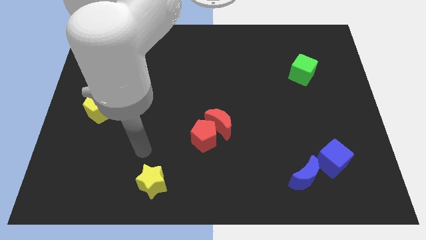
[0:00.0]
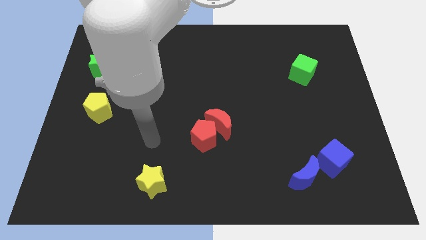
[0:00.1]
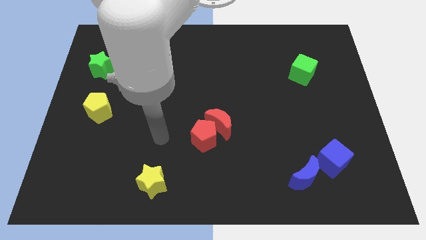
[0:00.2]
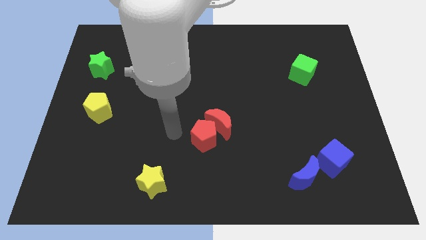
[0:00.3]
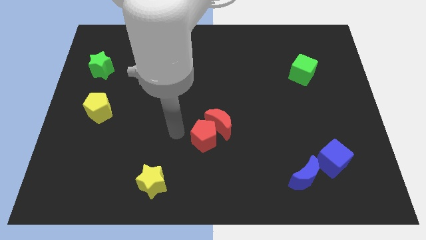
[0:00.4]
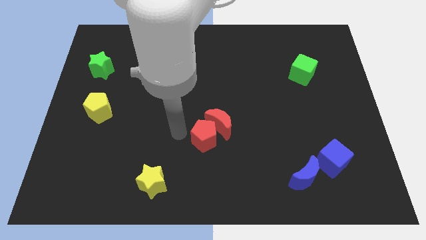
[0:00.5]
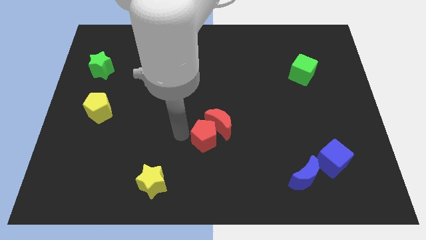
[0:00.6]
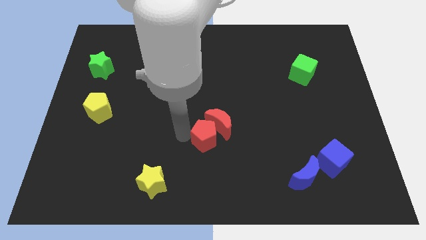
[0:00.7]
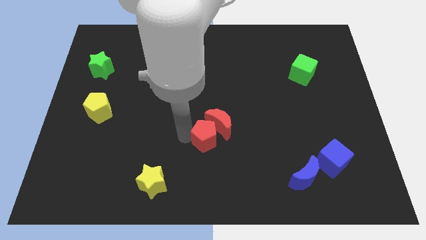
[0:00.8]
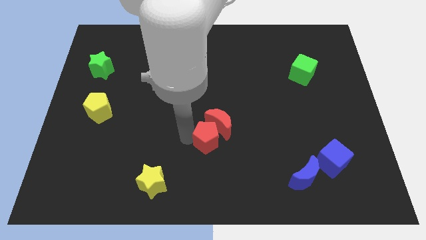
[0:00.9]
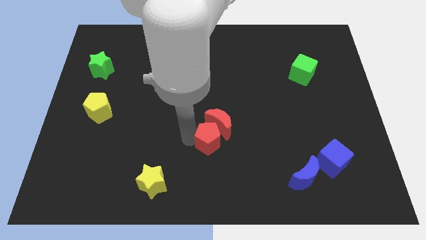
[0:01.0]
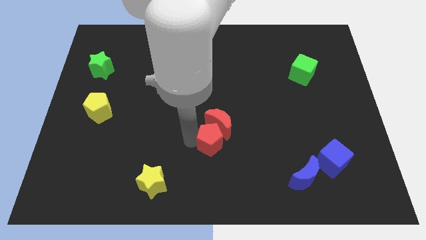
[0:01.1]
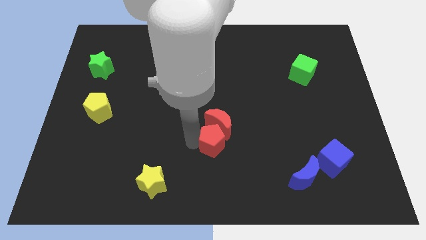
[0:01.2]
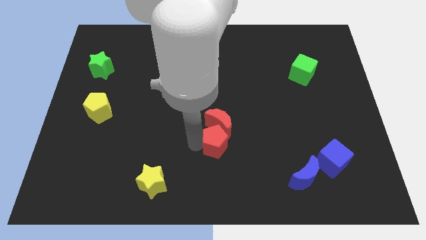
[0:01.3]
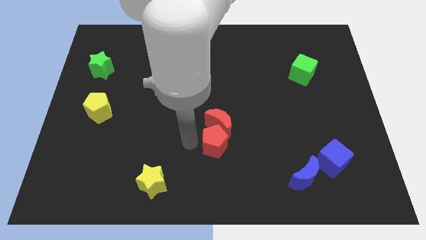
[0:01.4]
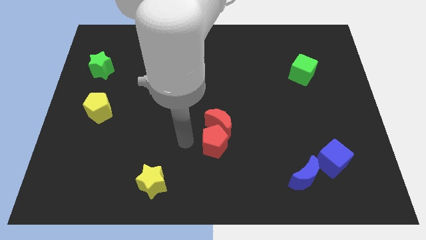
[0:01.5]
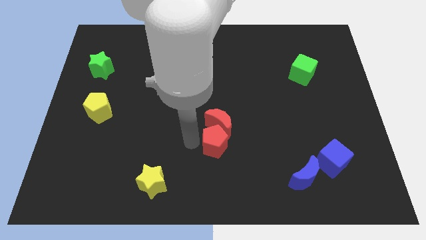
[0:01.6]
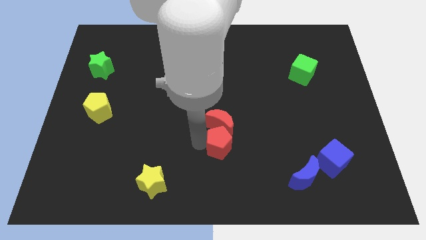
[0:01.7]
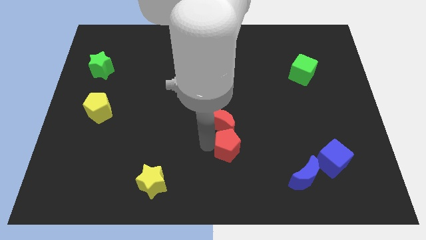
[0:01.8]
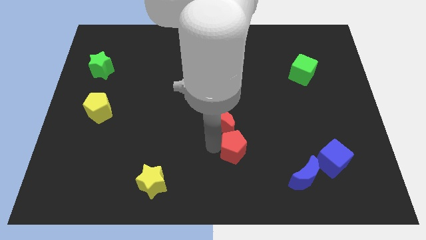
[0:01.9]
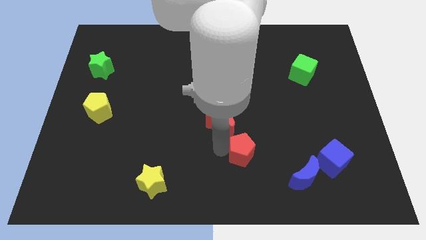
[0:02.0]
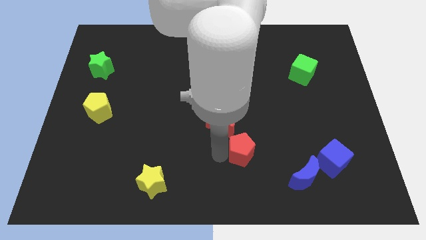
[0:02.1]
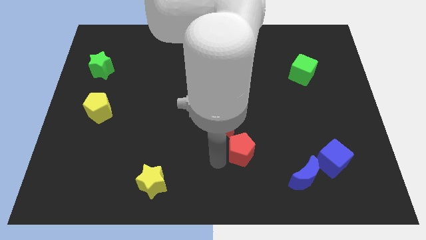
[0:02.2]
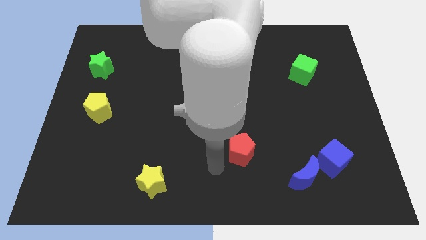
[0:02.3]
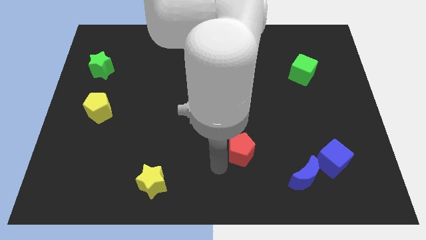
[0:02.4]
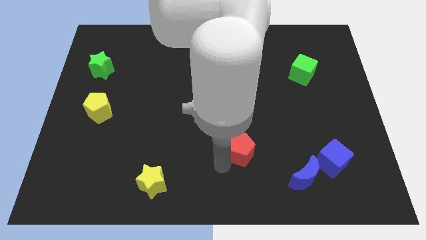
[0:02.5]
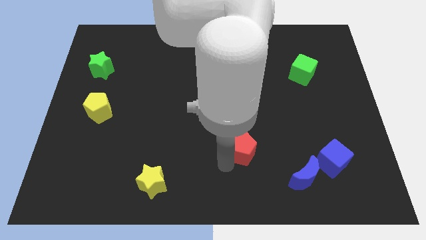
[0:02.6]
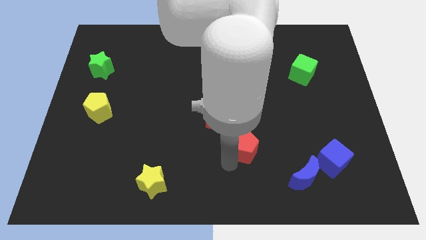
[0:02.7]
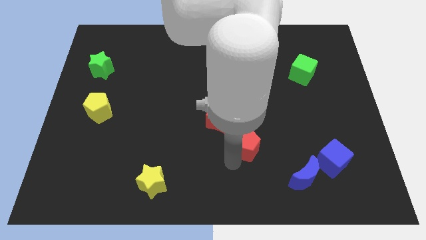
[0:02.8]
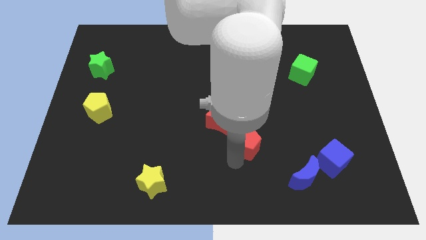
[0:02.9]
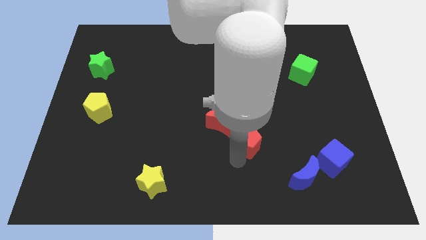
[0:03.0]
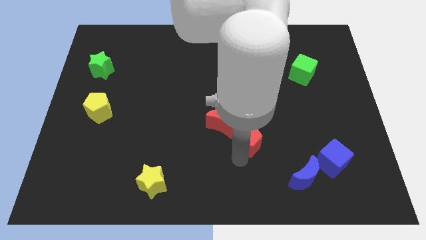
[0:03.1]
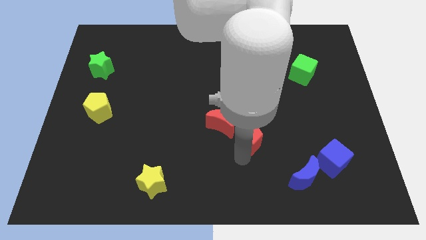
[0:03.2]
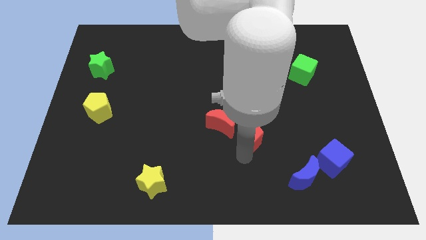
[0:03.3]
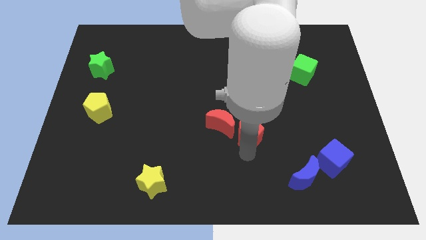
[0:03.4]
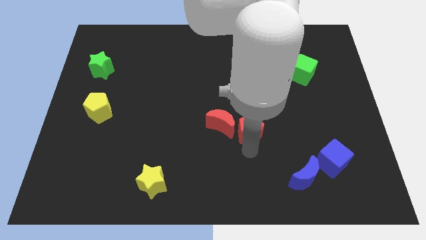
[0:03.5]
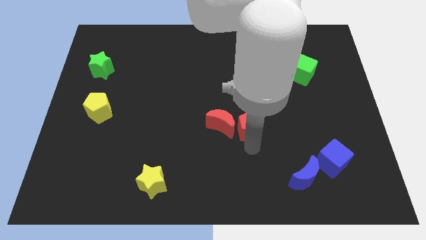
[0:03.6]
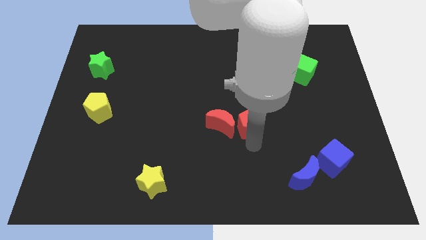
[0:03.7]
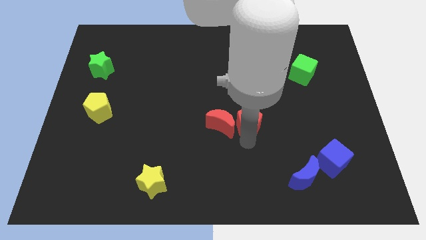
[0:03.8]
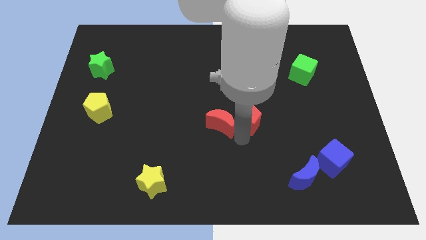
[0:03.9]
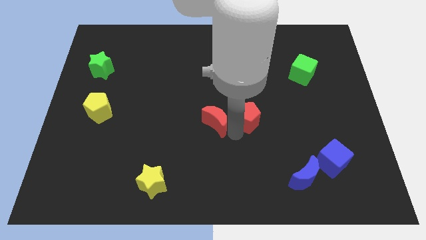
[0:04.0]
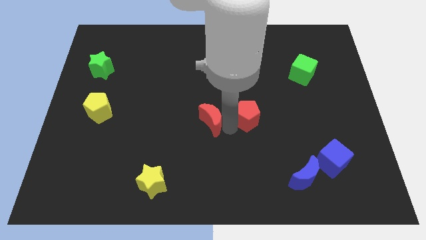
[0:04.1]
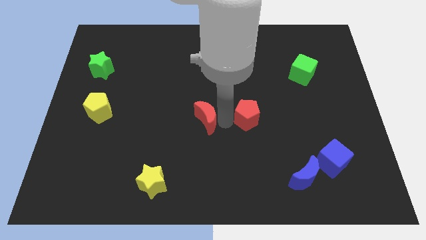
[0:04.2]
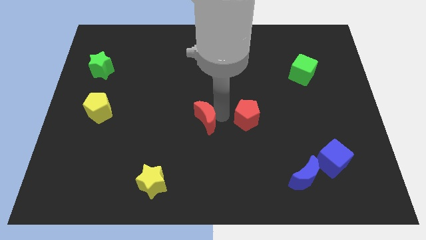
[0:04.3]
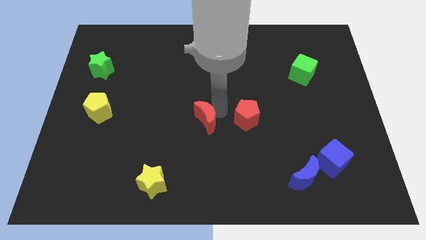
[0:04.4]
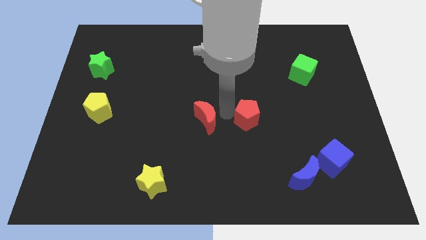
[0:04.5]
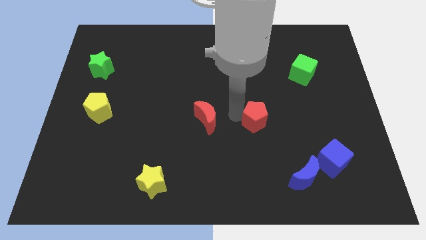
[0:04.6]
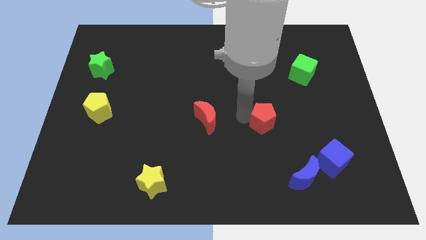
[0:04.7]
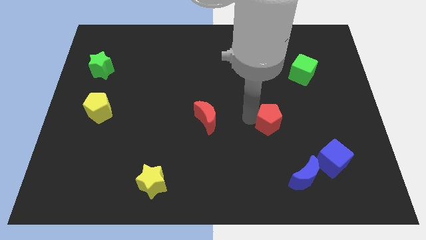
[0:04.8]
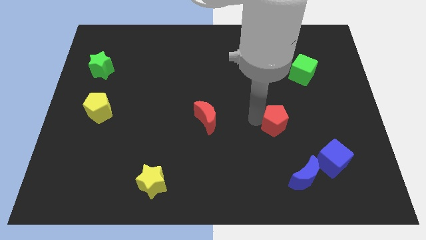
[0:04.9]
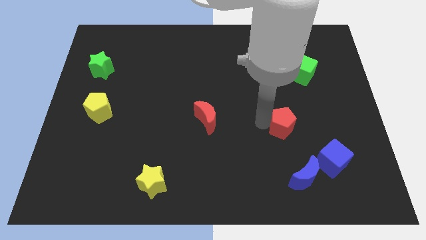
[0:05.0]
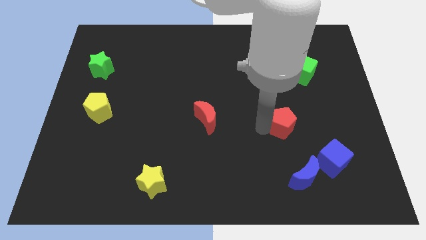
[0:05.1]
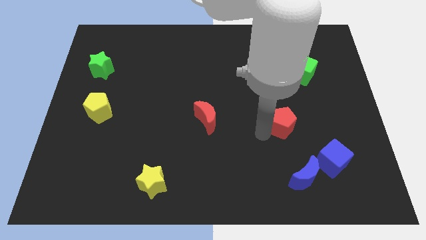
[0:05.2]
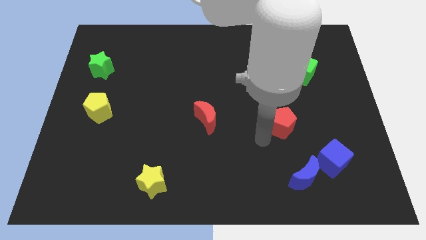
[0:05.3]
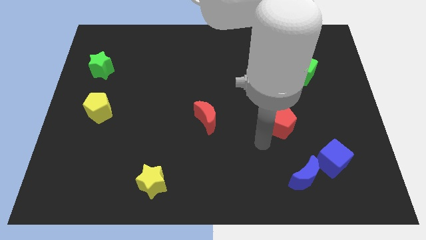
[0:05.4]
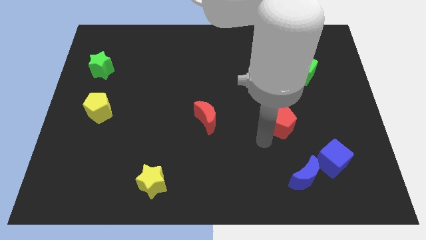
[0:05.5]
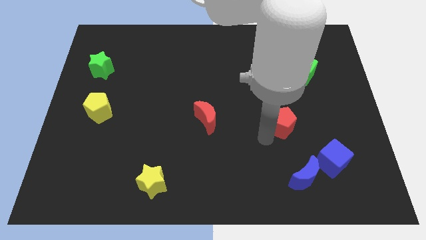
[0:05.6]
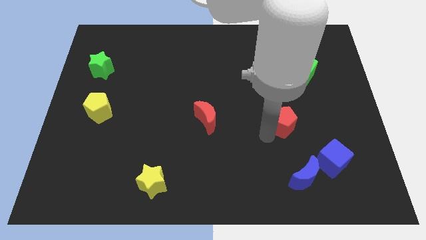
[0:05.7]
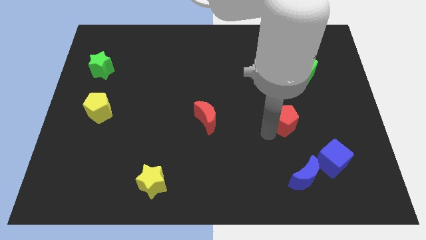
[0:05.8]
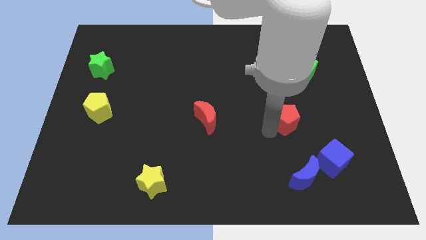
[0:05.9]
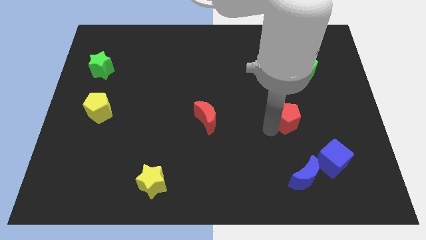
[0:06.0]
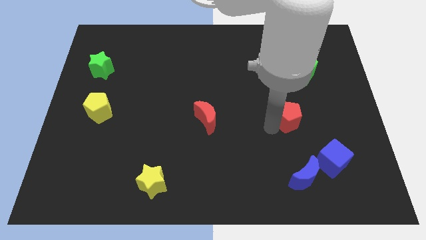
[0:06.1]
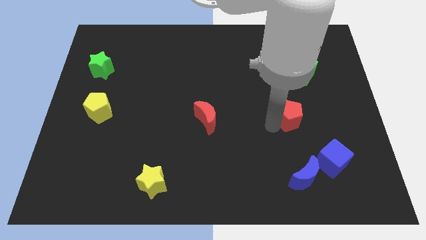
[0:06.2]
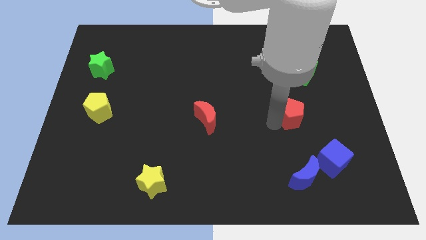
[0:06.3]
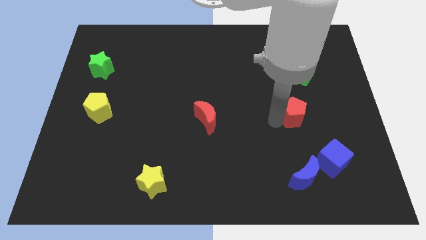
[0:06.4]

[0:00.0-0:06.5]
push the red pentagon to the bottom side of the green cube

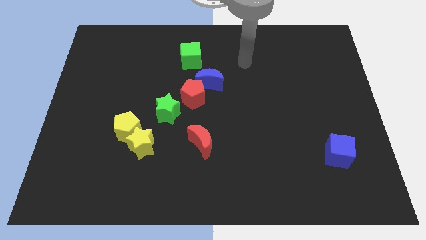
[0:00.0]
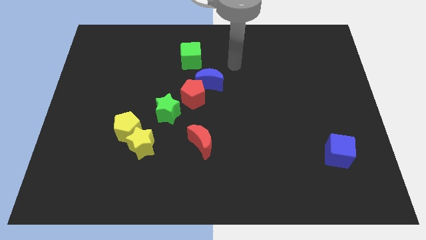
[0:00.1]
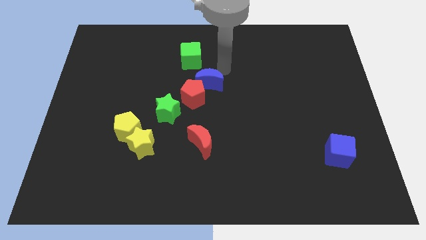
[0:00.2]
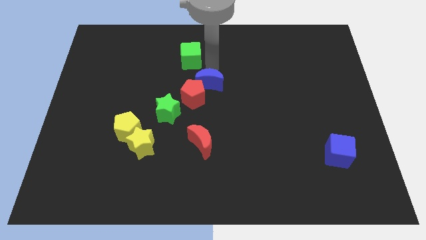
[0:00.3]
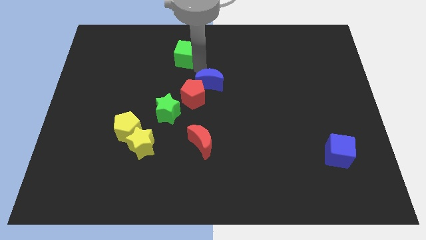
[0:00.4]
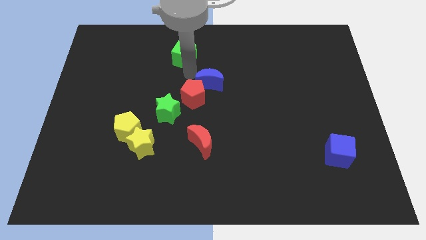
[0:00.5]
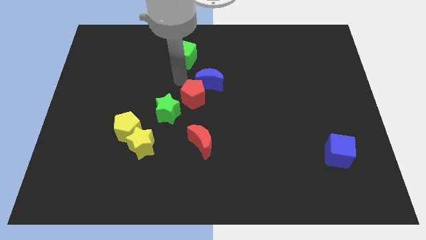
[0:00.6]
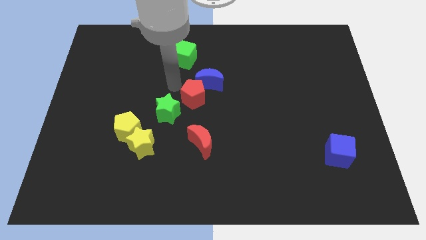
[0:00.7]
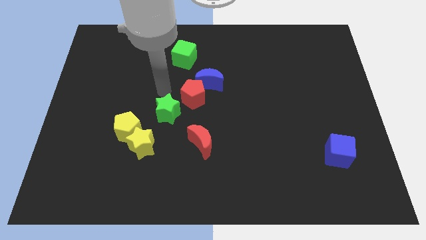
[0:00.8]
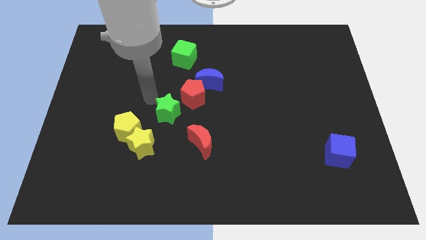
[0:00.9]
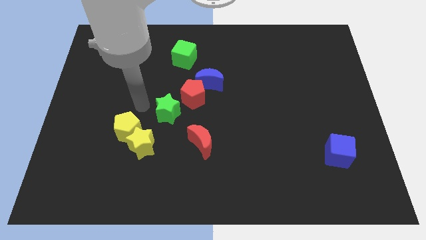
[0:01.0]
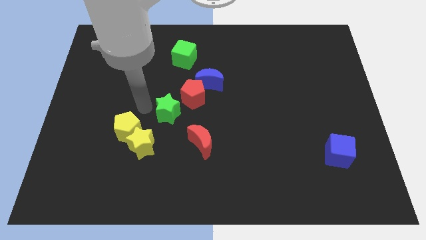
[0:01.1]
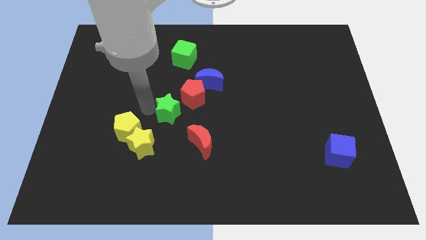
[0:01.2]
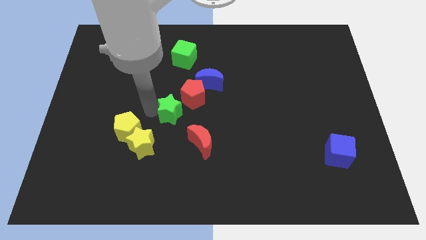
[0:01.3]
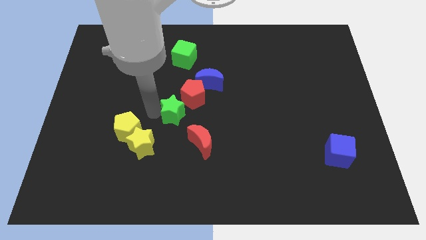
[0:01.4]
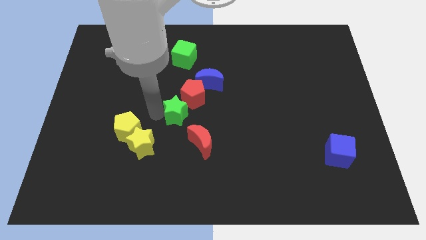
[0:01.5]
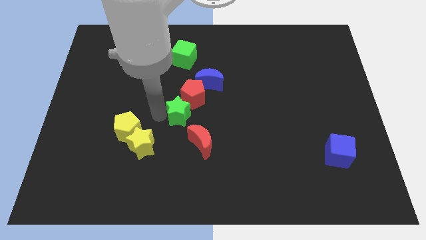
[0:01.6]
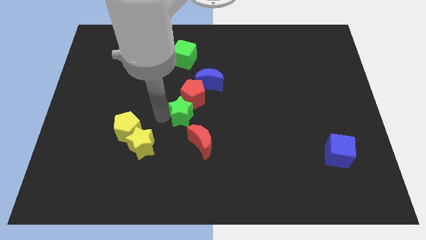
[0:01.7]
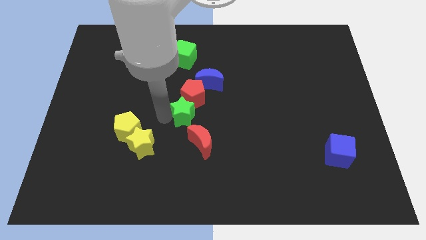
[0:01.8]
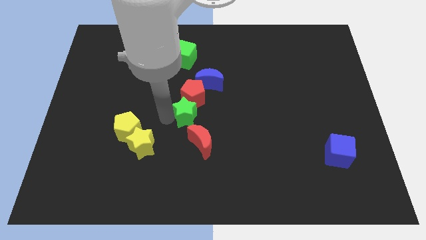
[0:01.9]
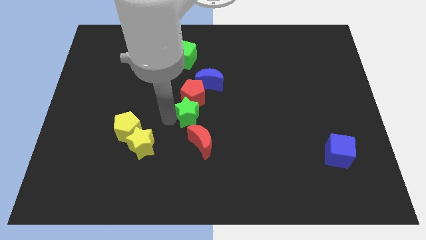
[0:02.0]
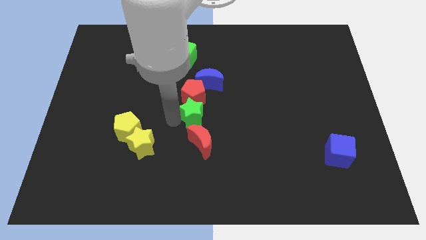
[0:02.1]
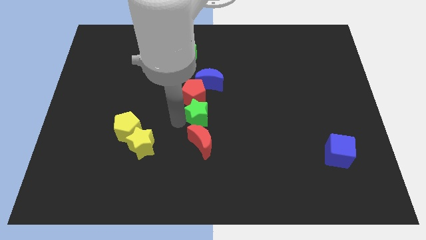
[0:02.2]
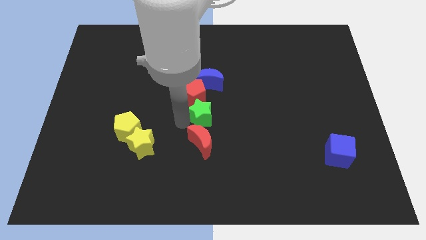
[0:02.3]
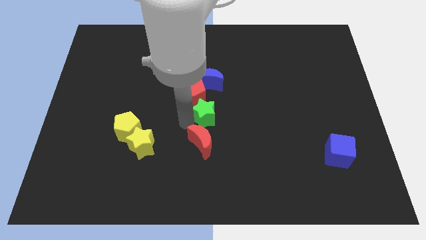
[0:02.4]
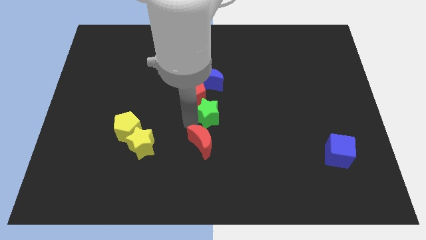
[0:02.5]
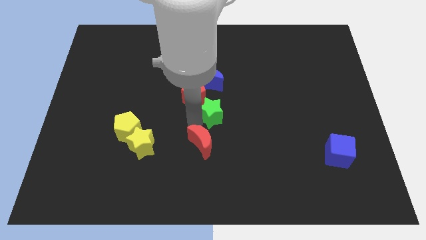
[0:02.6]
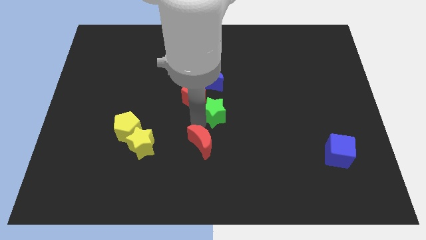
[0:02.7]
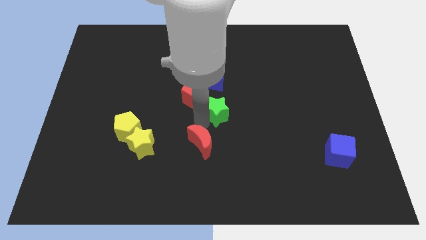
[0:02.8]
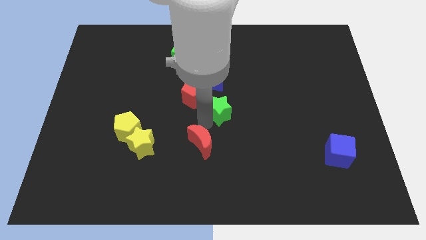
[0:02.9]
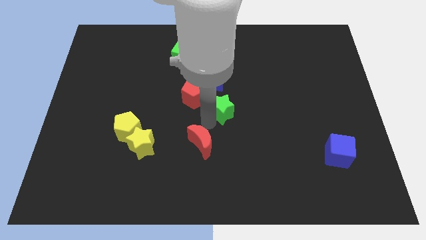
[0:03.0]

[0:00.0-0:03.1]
push the green star to the bottom right of the blue moon
